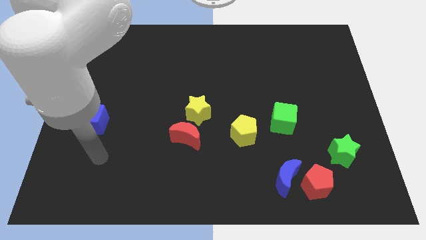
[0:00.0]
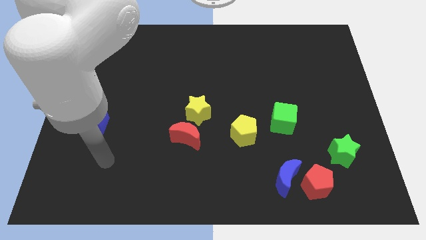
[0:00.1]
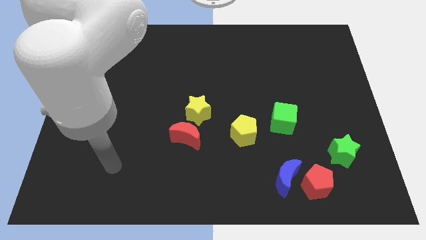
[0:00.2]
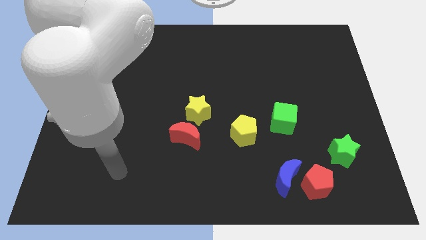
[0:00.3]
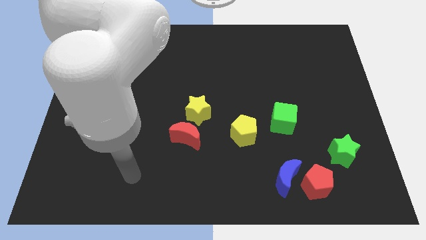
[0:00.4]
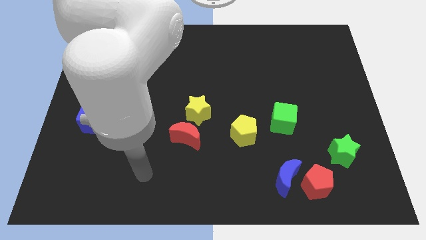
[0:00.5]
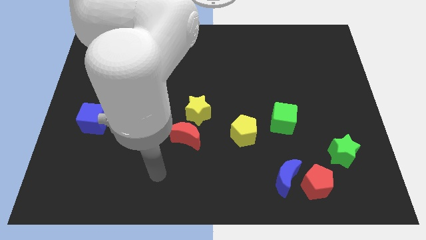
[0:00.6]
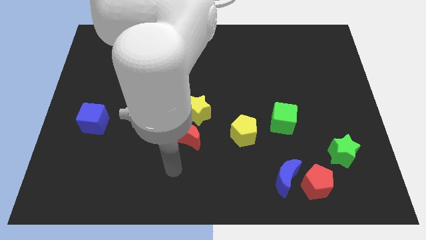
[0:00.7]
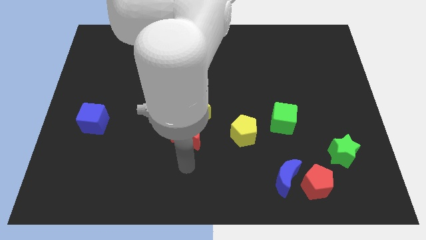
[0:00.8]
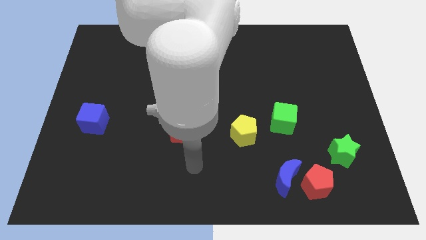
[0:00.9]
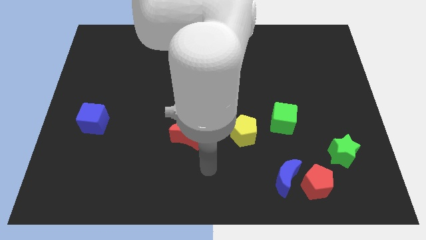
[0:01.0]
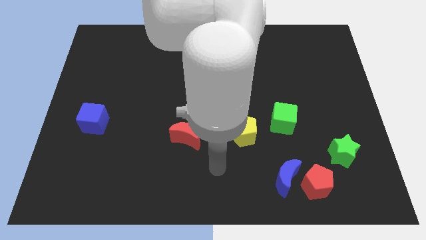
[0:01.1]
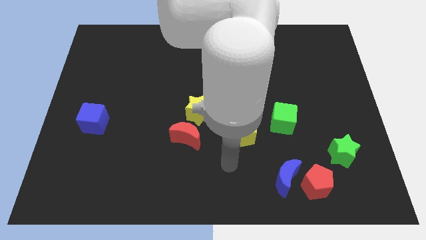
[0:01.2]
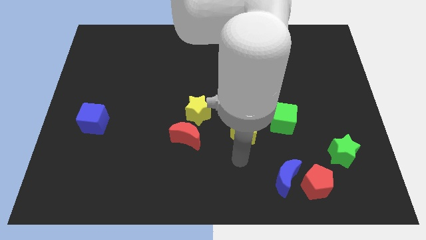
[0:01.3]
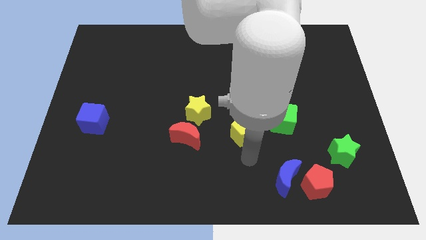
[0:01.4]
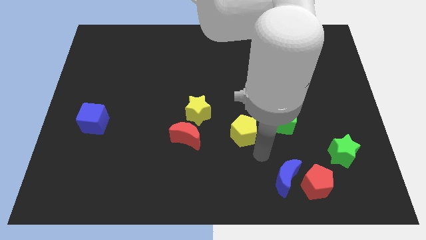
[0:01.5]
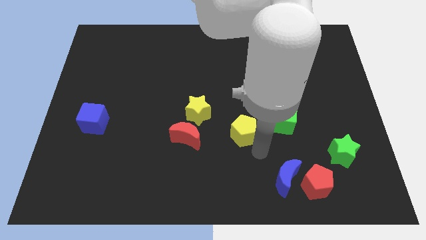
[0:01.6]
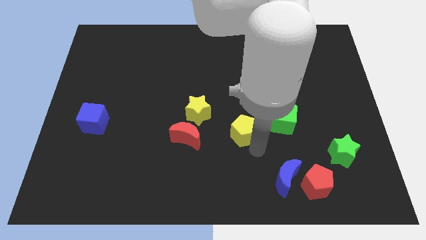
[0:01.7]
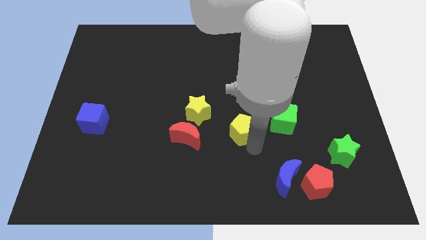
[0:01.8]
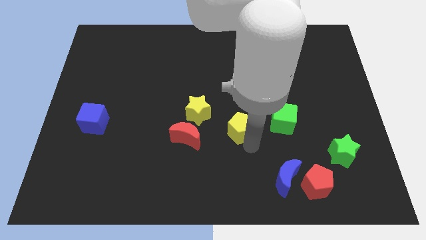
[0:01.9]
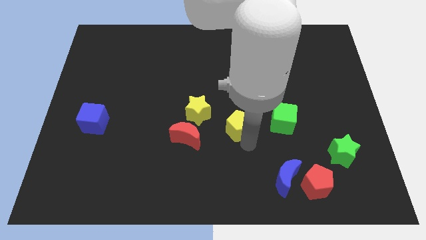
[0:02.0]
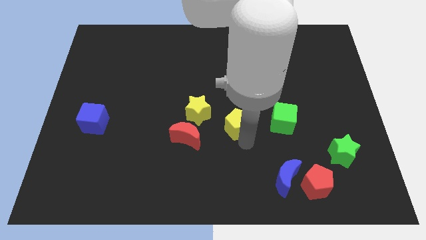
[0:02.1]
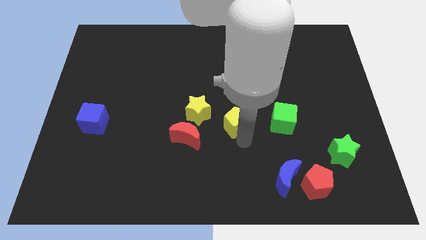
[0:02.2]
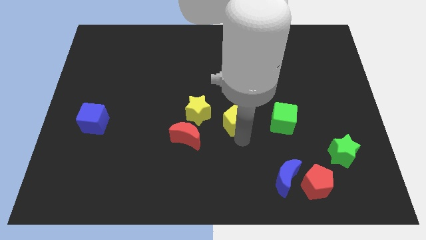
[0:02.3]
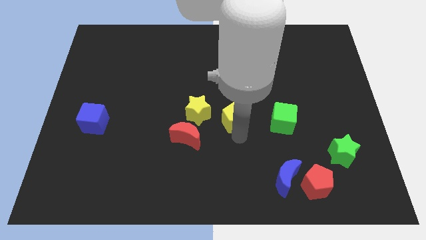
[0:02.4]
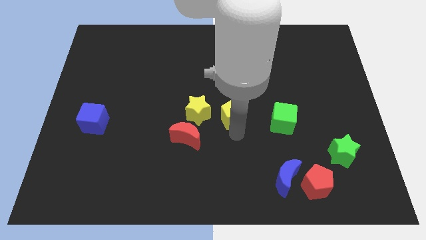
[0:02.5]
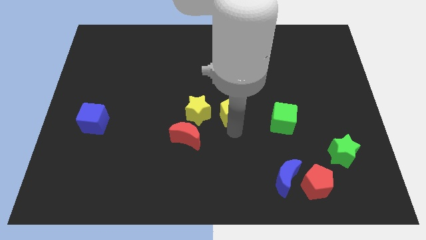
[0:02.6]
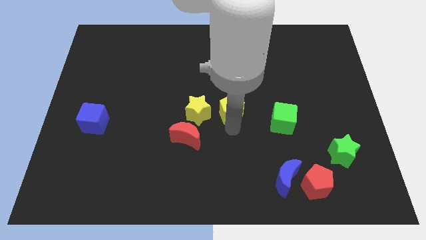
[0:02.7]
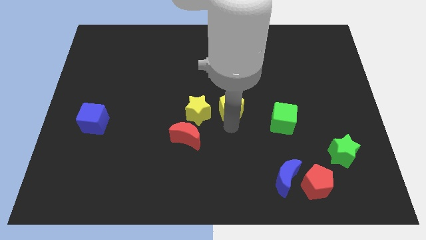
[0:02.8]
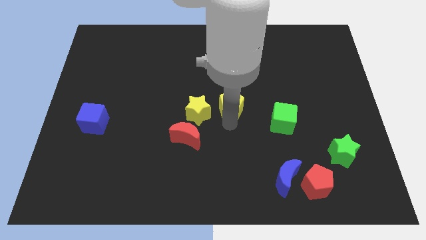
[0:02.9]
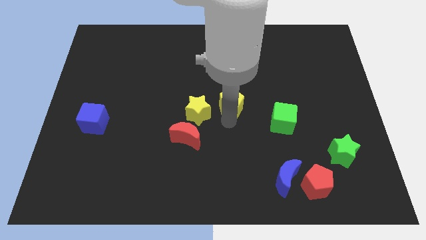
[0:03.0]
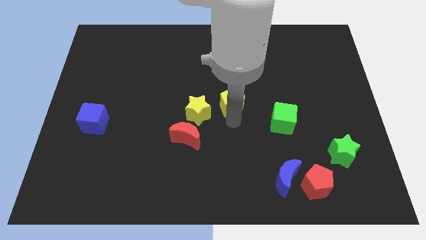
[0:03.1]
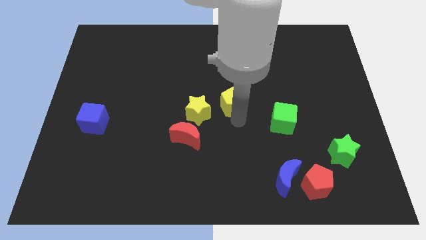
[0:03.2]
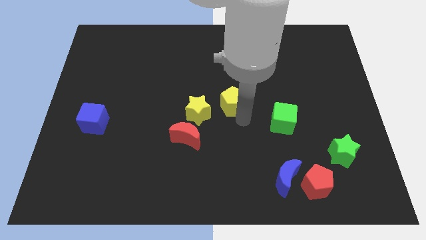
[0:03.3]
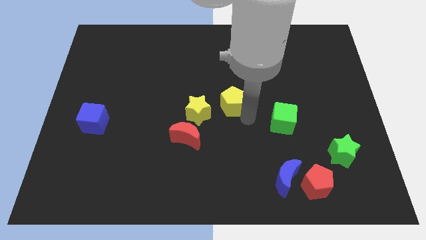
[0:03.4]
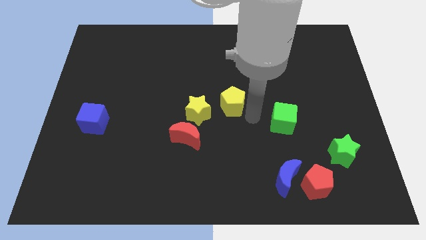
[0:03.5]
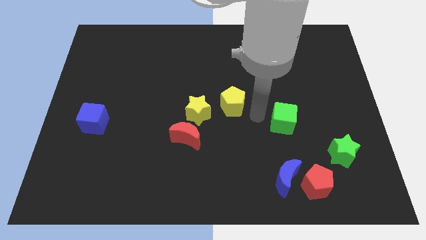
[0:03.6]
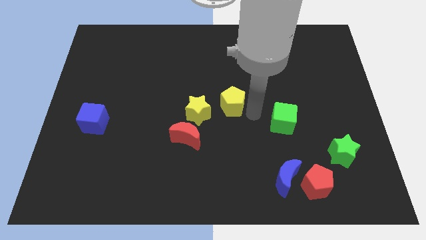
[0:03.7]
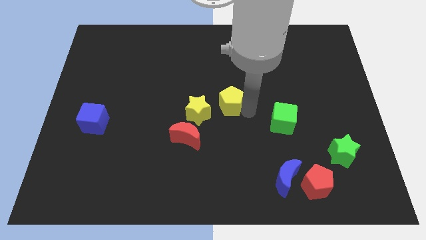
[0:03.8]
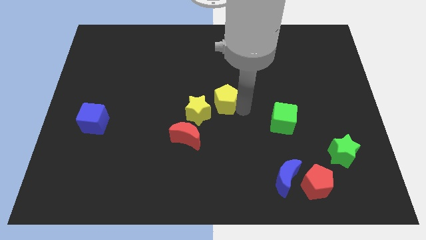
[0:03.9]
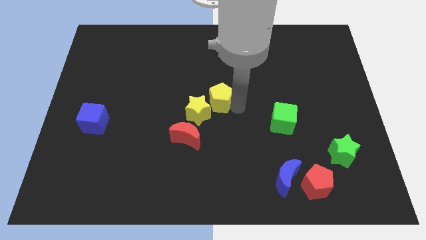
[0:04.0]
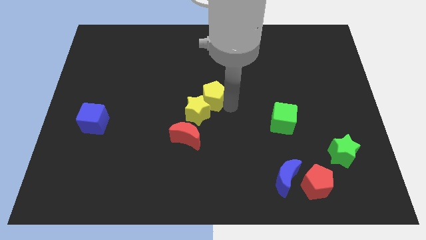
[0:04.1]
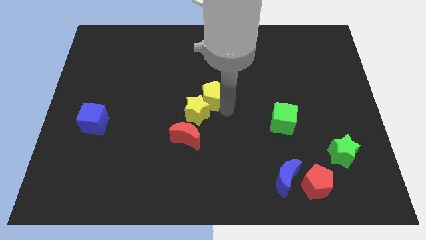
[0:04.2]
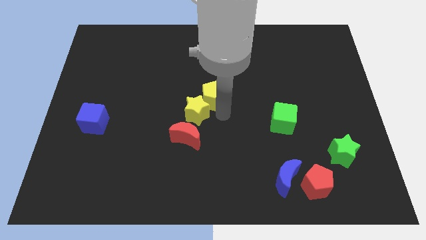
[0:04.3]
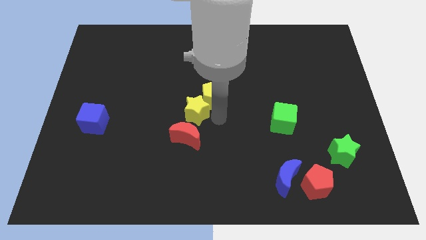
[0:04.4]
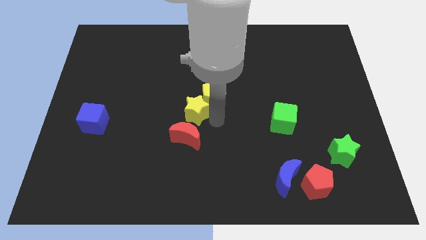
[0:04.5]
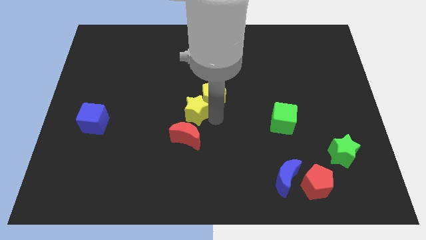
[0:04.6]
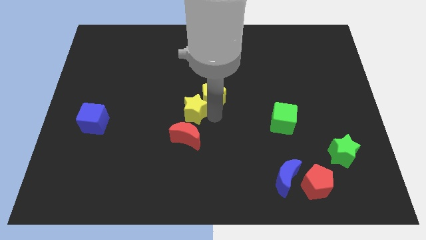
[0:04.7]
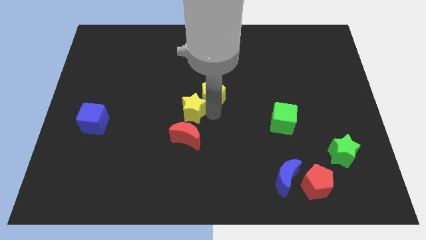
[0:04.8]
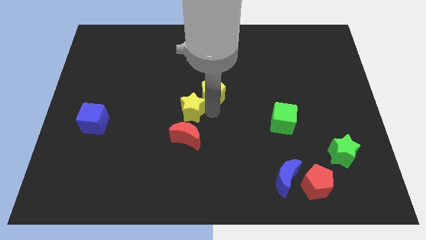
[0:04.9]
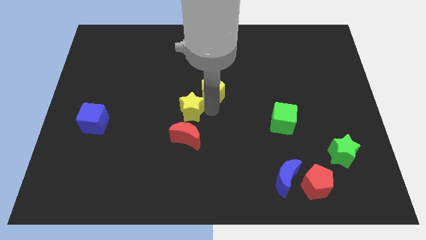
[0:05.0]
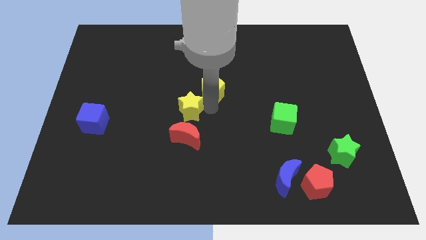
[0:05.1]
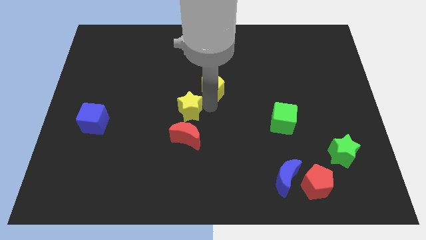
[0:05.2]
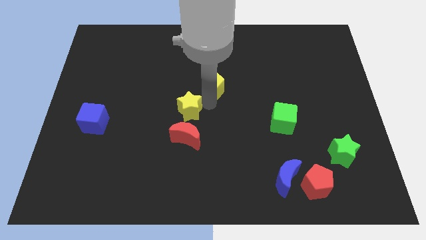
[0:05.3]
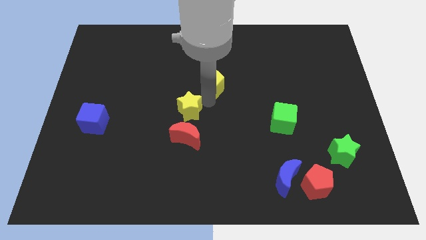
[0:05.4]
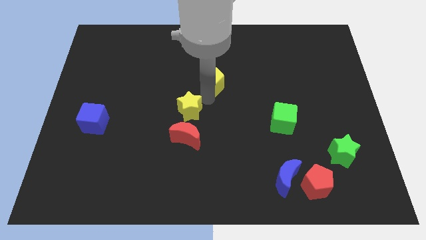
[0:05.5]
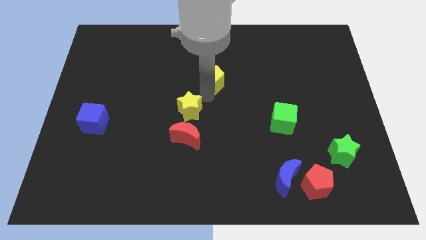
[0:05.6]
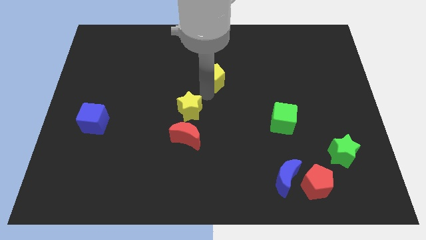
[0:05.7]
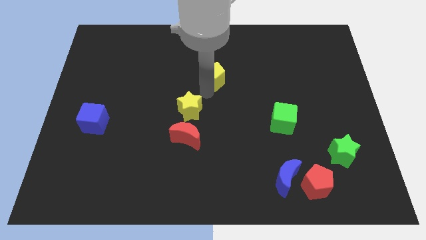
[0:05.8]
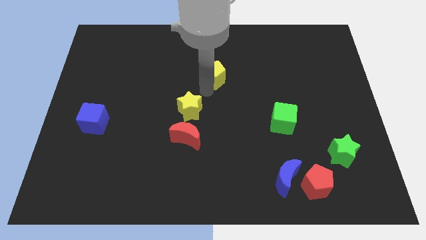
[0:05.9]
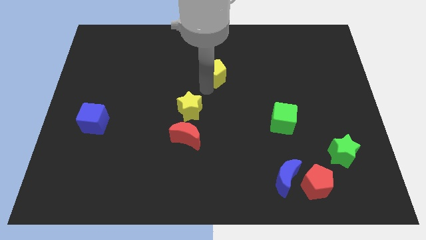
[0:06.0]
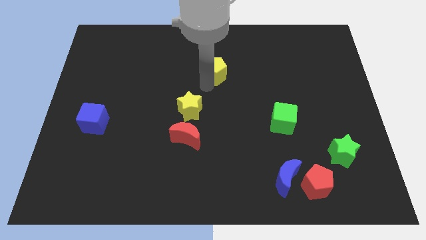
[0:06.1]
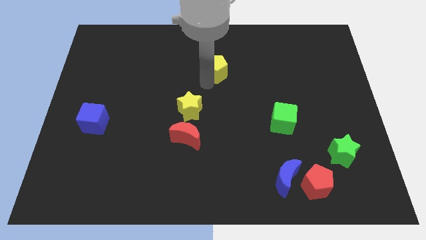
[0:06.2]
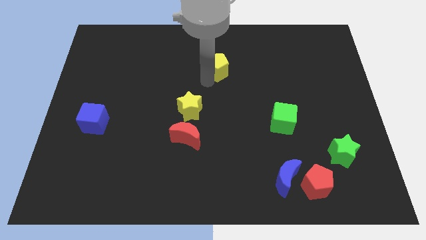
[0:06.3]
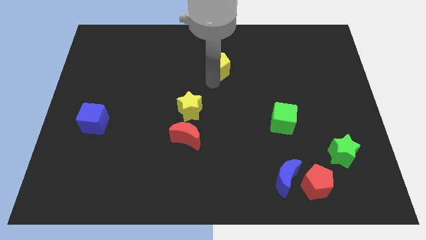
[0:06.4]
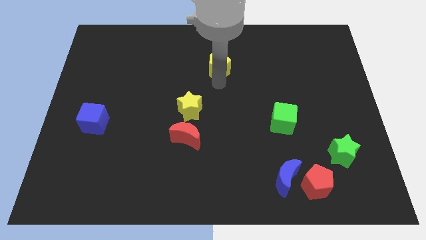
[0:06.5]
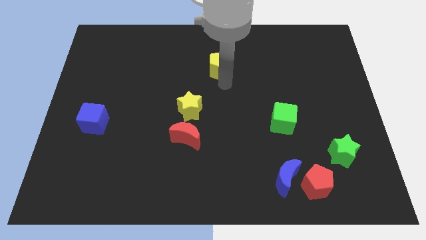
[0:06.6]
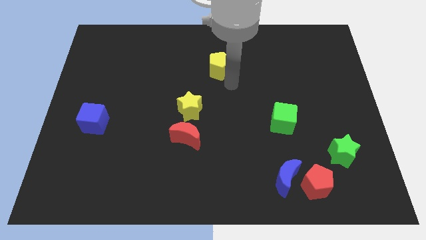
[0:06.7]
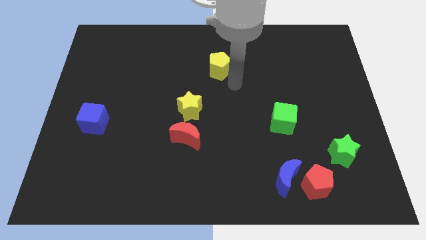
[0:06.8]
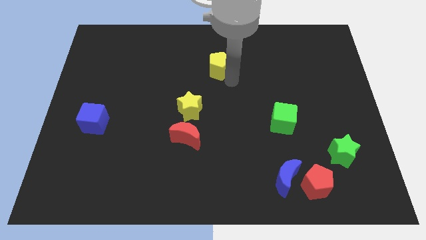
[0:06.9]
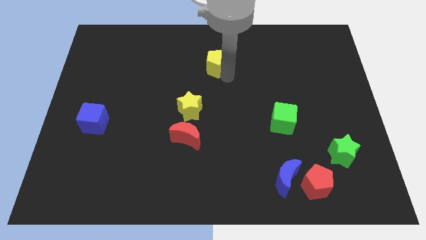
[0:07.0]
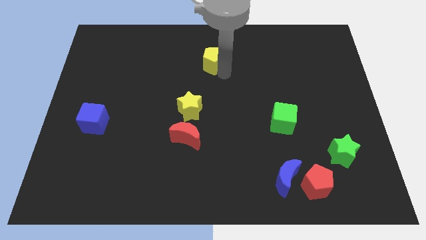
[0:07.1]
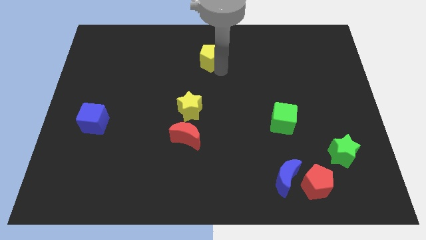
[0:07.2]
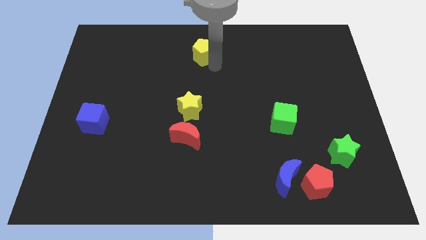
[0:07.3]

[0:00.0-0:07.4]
slide the yellow pentagon to the towards your base
